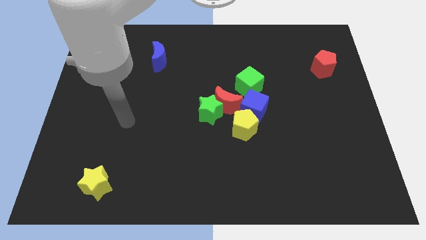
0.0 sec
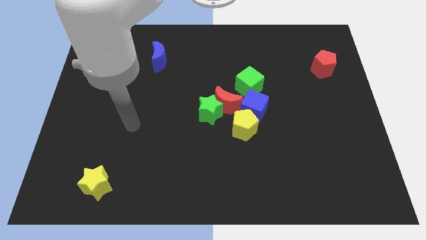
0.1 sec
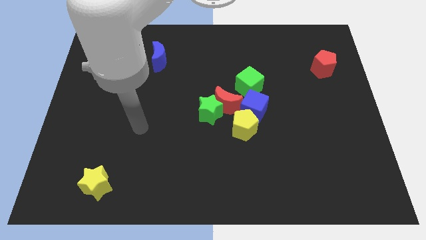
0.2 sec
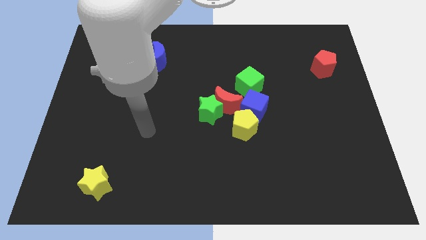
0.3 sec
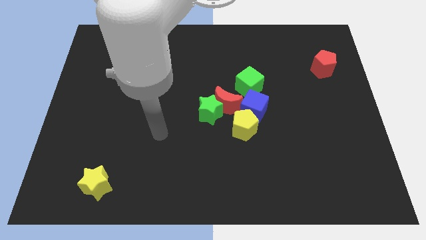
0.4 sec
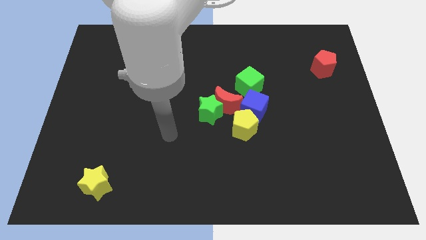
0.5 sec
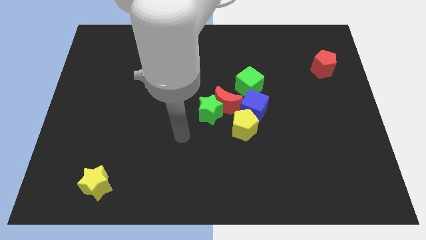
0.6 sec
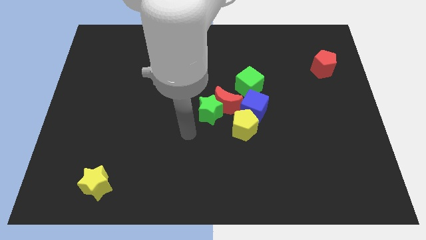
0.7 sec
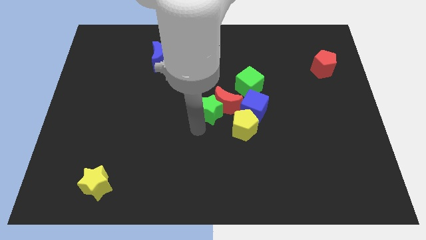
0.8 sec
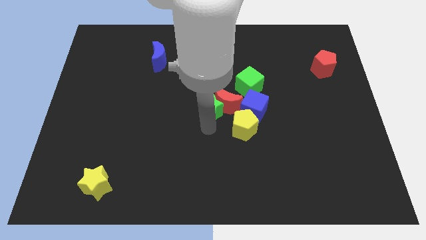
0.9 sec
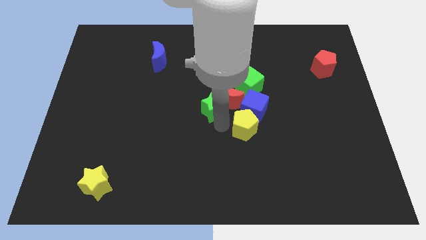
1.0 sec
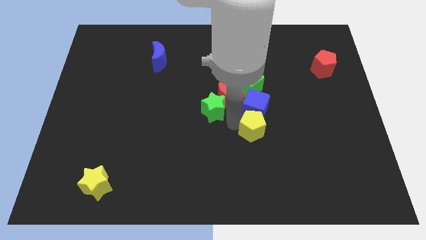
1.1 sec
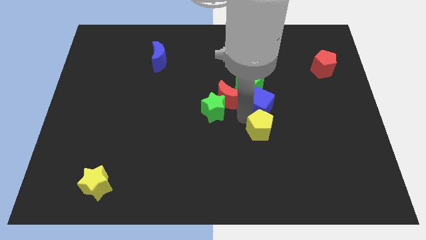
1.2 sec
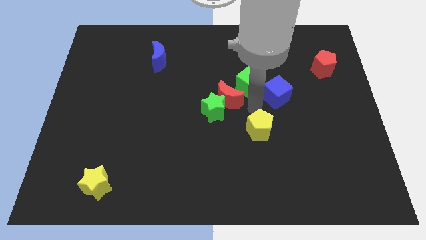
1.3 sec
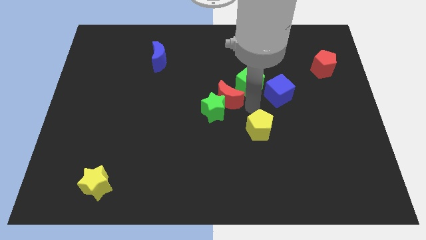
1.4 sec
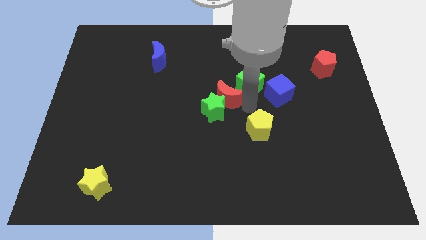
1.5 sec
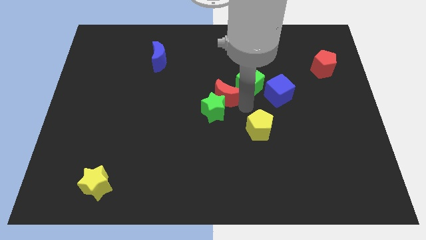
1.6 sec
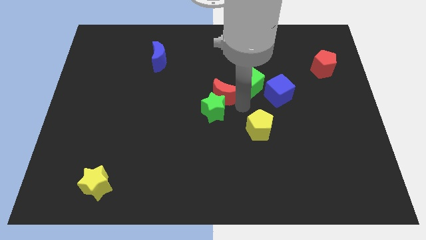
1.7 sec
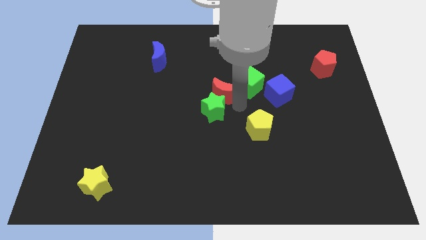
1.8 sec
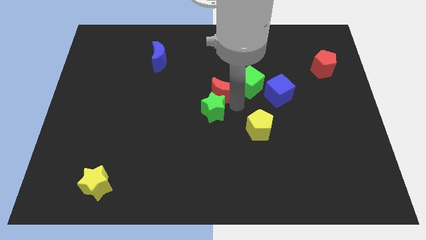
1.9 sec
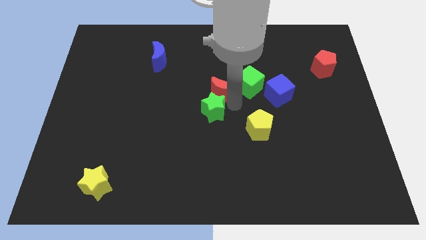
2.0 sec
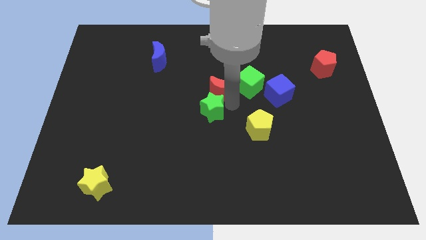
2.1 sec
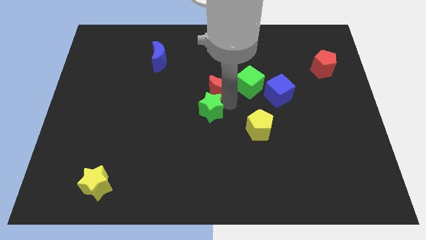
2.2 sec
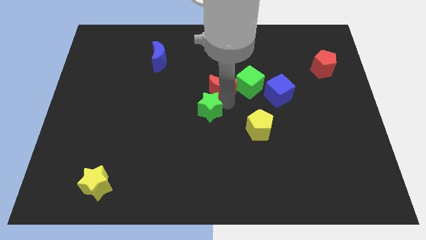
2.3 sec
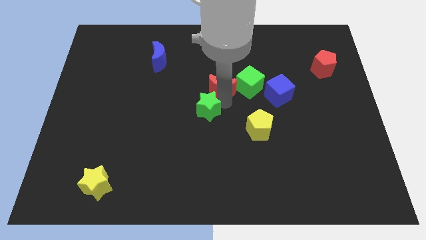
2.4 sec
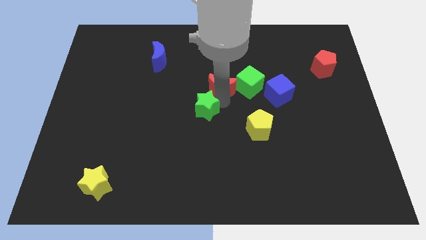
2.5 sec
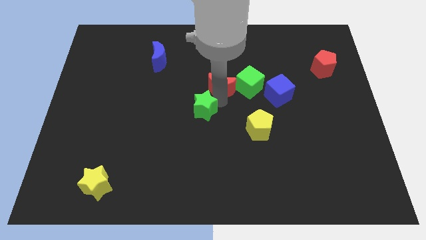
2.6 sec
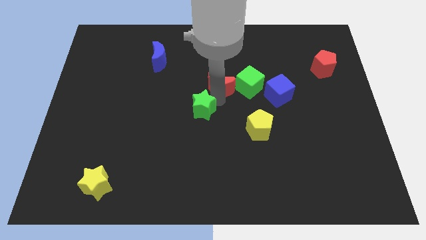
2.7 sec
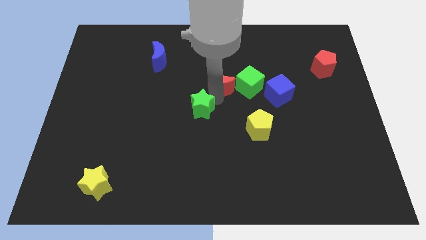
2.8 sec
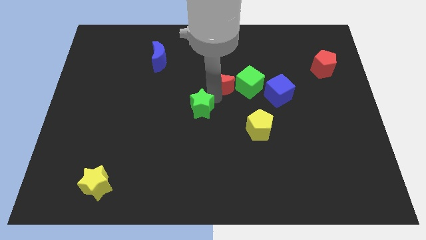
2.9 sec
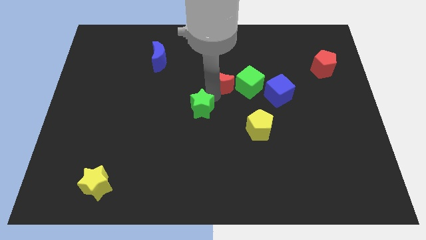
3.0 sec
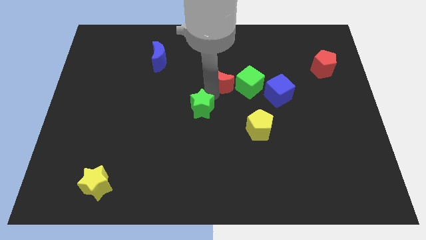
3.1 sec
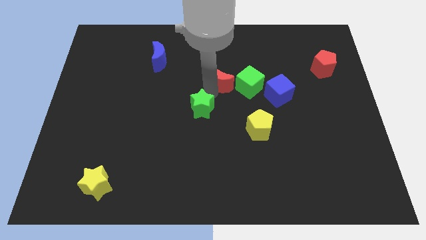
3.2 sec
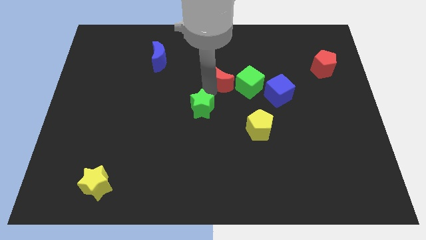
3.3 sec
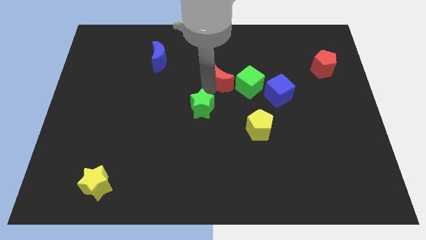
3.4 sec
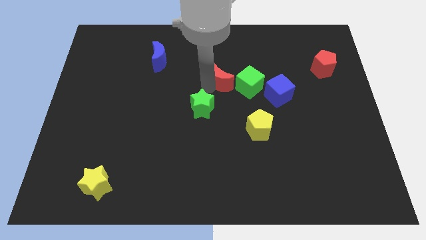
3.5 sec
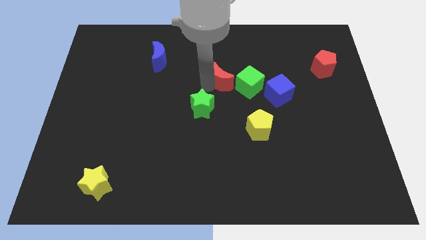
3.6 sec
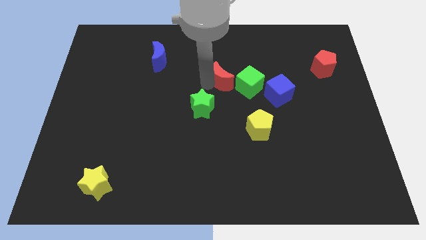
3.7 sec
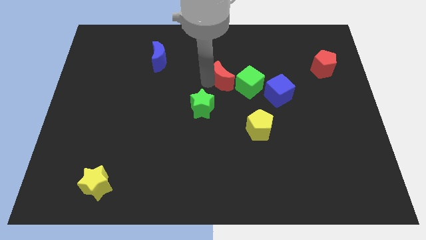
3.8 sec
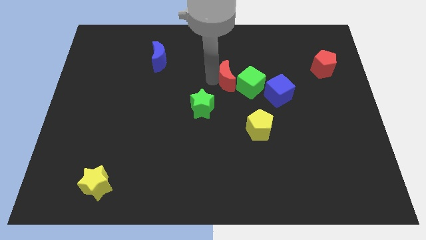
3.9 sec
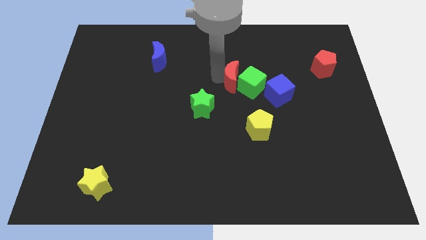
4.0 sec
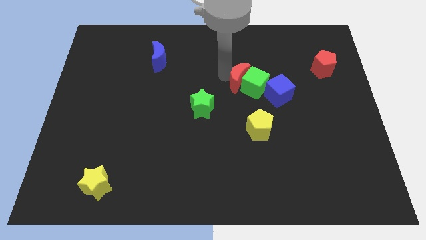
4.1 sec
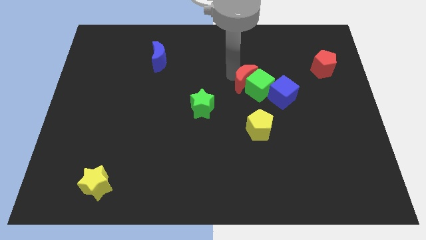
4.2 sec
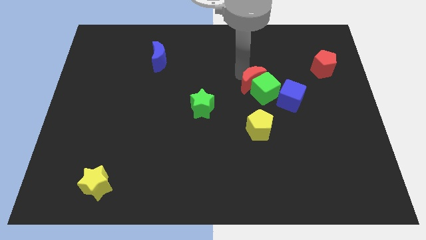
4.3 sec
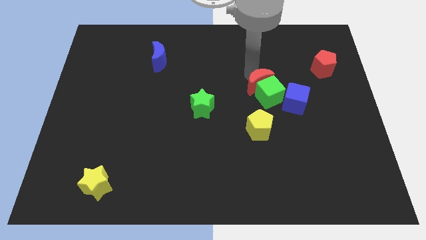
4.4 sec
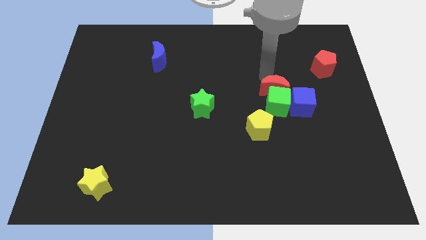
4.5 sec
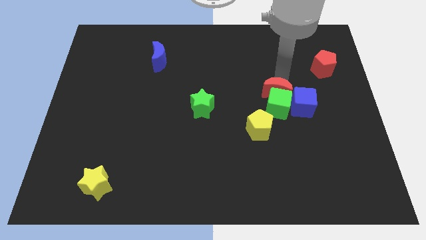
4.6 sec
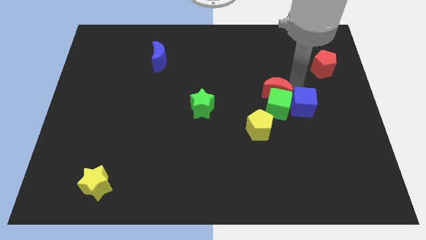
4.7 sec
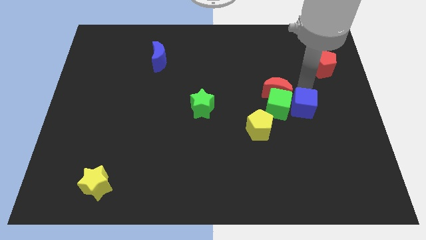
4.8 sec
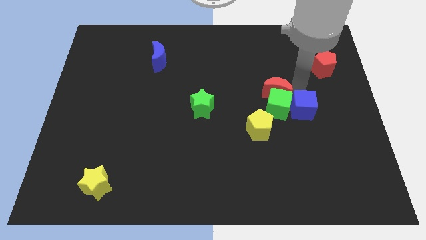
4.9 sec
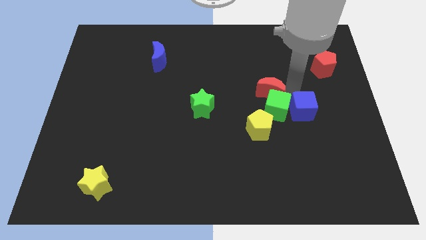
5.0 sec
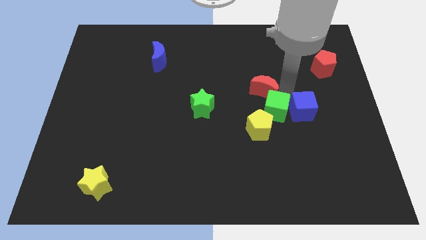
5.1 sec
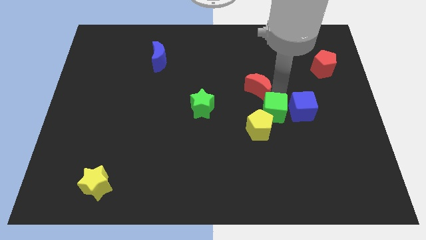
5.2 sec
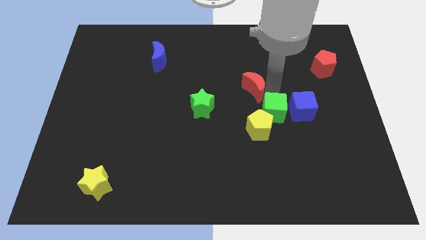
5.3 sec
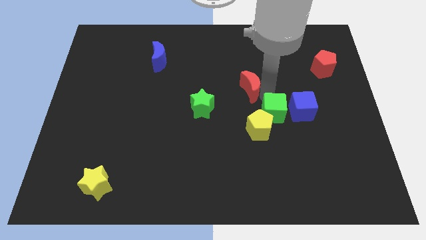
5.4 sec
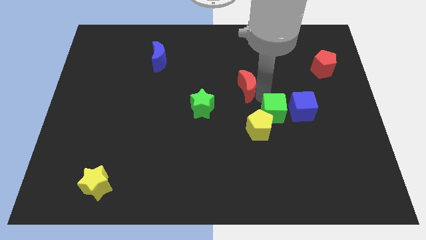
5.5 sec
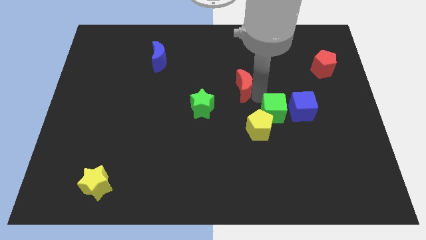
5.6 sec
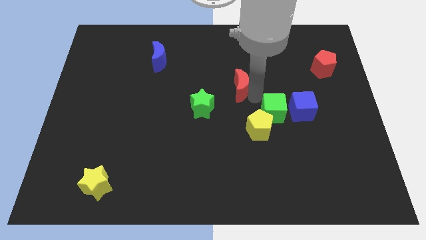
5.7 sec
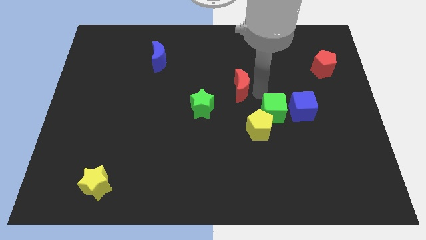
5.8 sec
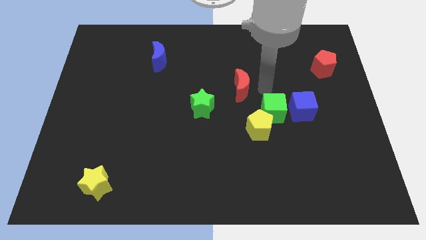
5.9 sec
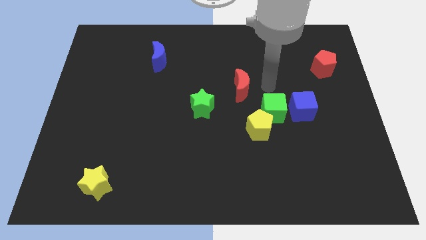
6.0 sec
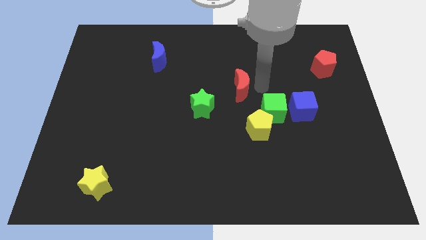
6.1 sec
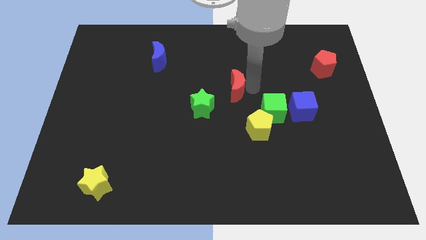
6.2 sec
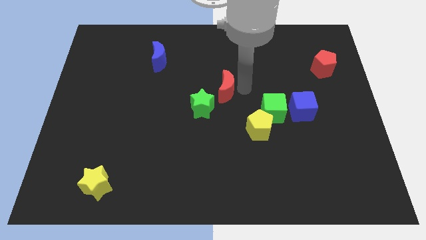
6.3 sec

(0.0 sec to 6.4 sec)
separate the red moon from the group of blocks

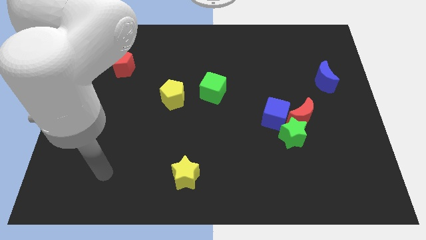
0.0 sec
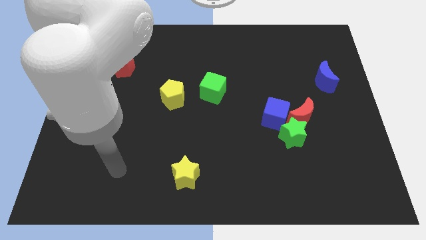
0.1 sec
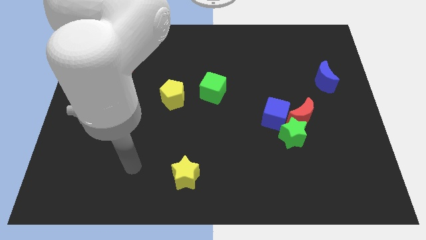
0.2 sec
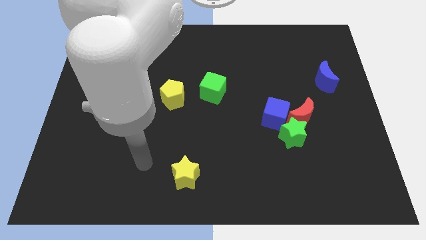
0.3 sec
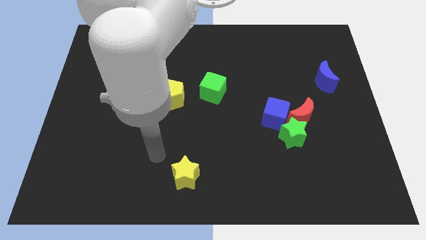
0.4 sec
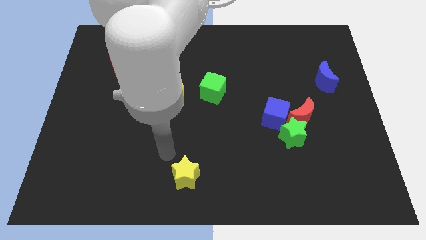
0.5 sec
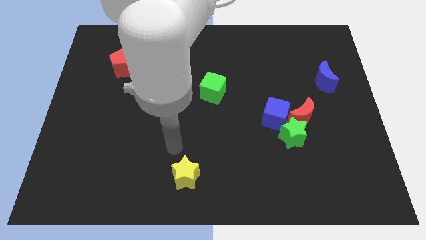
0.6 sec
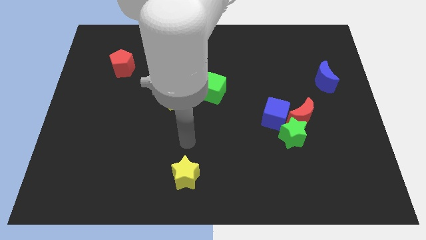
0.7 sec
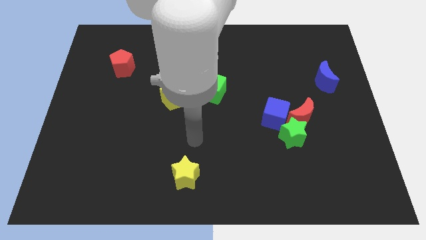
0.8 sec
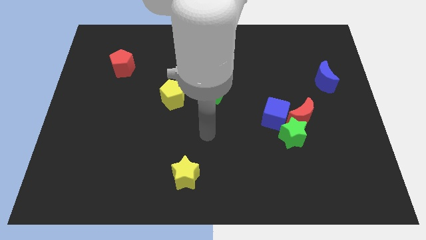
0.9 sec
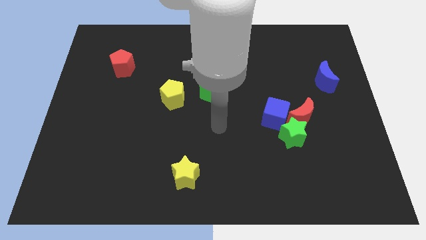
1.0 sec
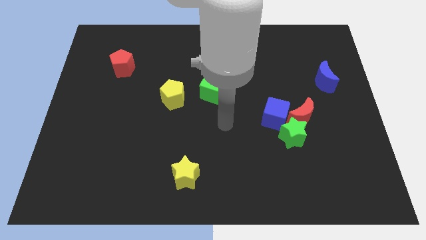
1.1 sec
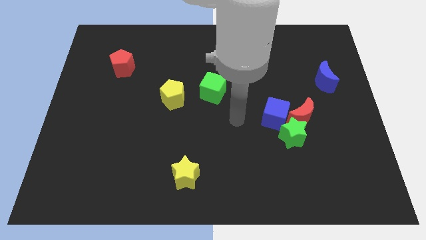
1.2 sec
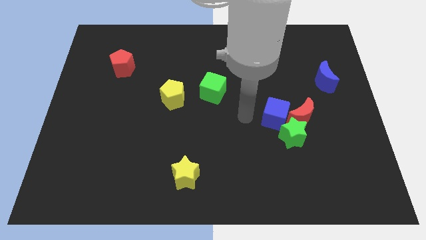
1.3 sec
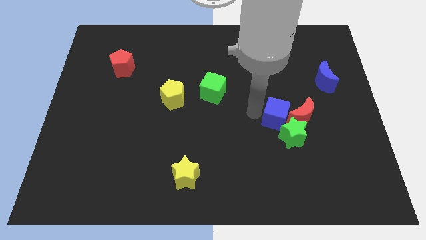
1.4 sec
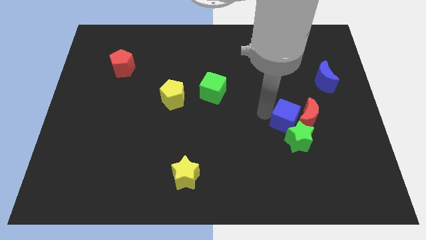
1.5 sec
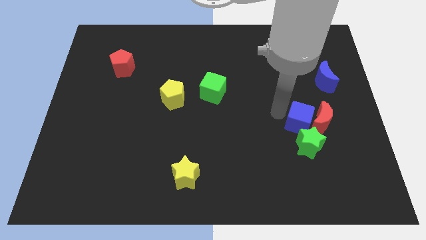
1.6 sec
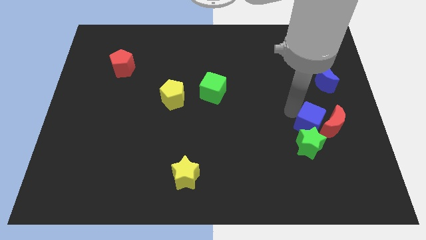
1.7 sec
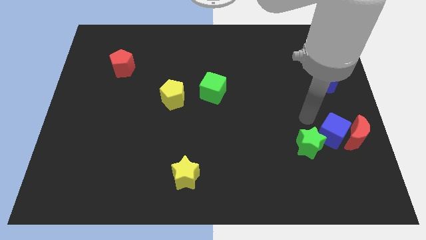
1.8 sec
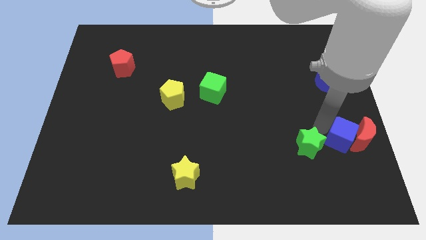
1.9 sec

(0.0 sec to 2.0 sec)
move the green star away from the red moon and blue cube

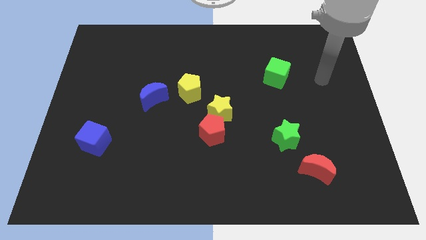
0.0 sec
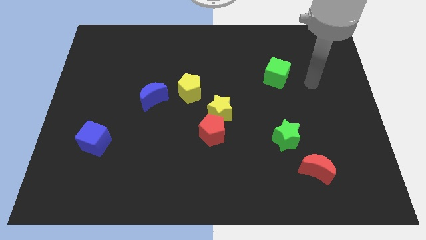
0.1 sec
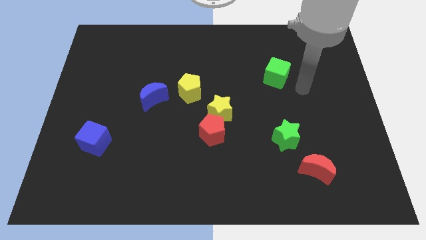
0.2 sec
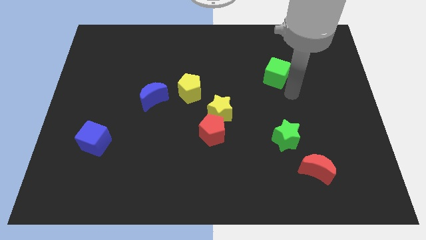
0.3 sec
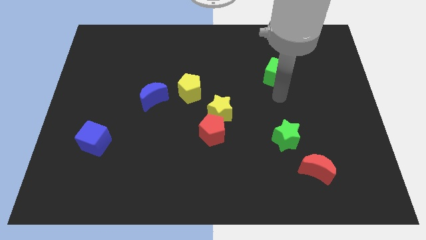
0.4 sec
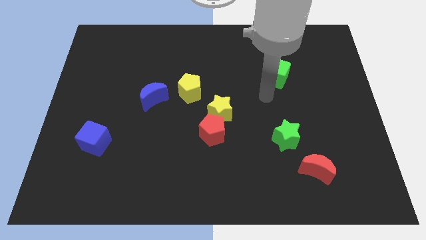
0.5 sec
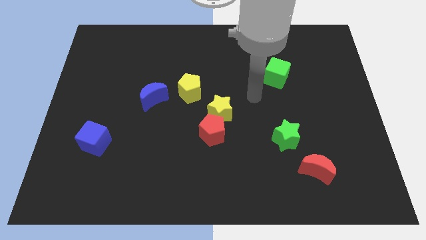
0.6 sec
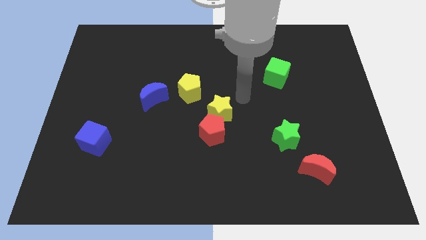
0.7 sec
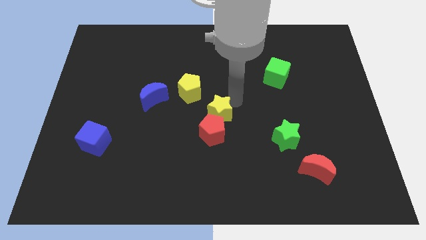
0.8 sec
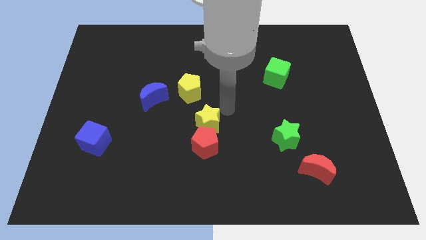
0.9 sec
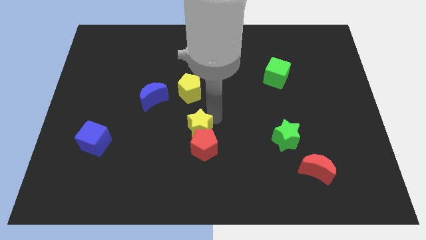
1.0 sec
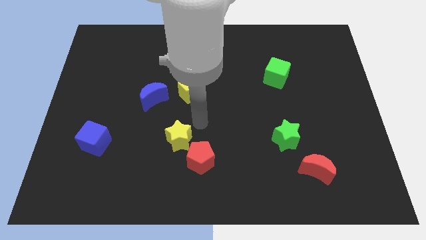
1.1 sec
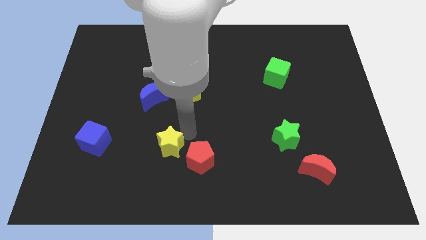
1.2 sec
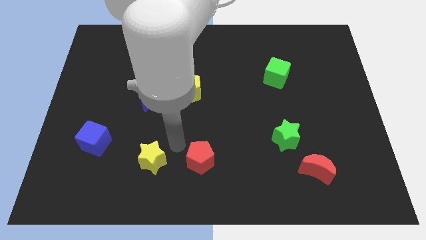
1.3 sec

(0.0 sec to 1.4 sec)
move the red pentagon away from the yellow star
